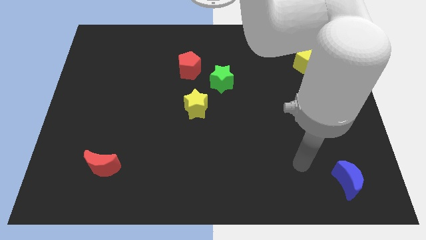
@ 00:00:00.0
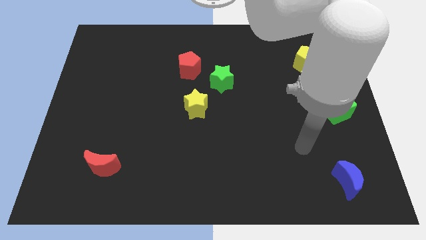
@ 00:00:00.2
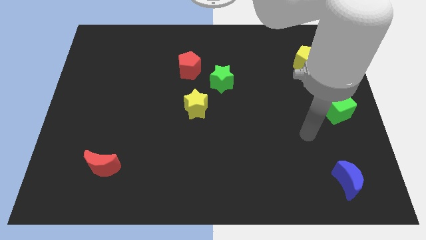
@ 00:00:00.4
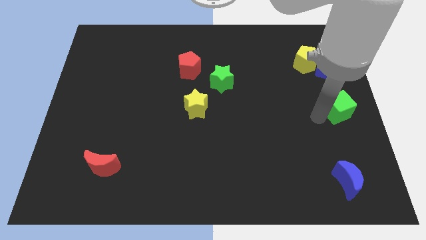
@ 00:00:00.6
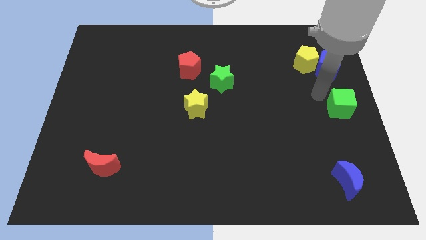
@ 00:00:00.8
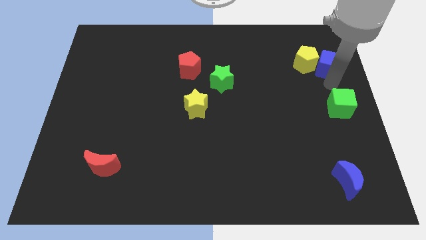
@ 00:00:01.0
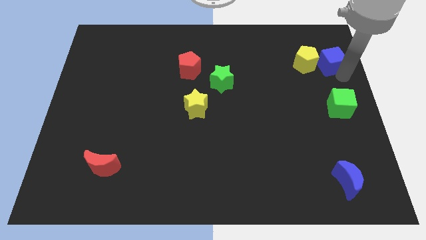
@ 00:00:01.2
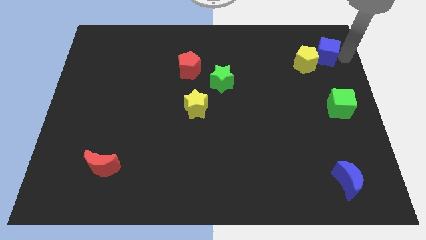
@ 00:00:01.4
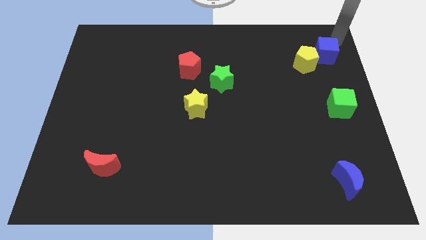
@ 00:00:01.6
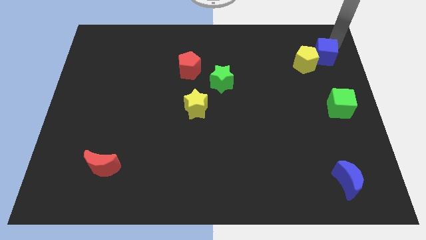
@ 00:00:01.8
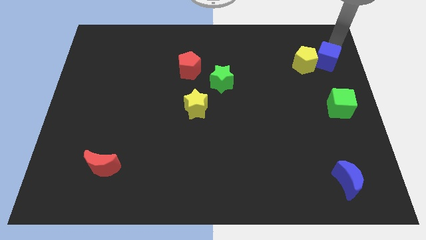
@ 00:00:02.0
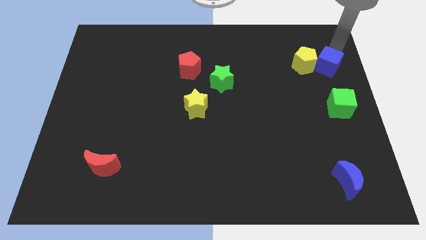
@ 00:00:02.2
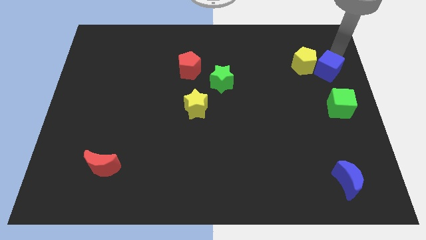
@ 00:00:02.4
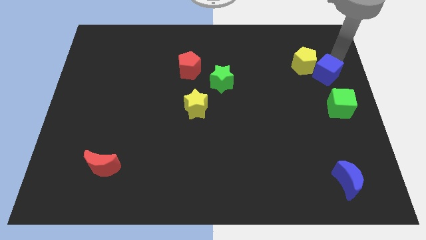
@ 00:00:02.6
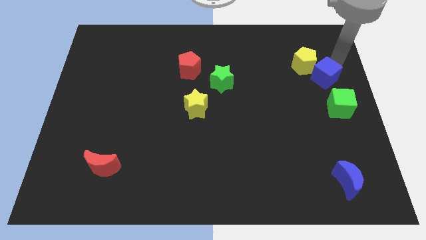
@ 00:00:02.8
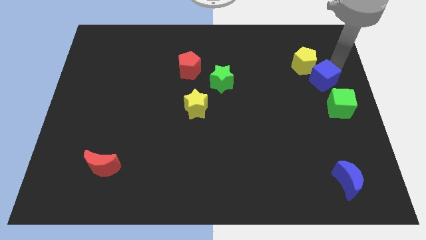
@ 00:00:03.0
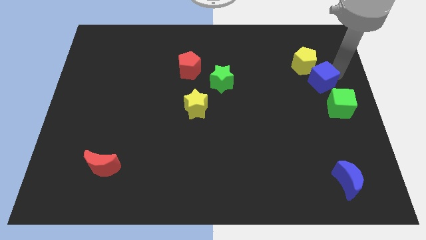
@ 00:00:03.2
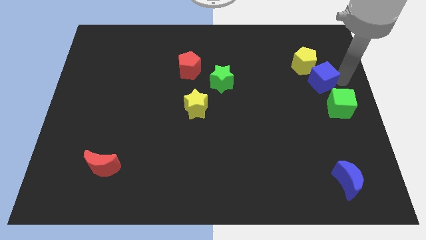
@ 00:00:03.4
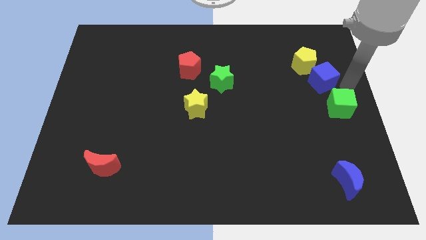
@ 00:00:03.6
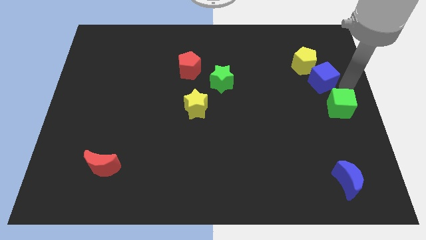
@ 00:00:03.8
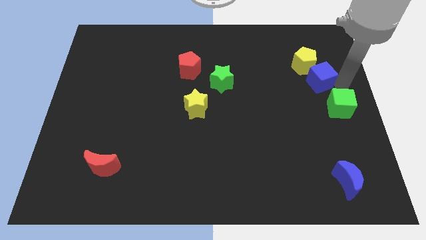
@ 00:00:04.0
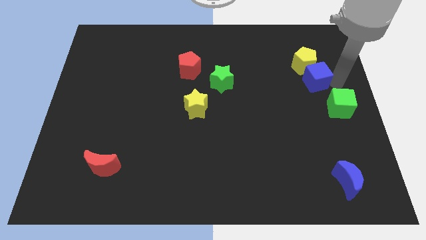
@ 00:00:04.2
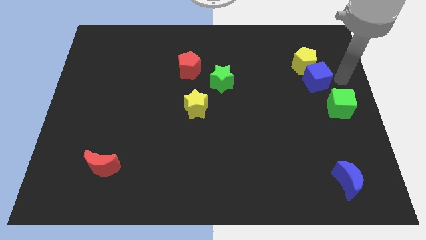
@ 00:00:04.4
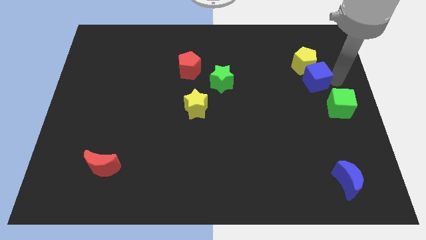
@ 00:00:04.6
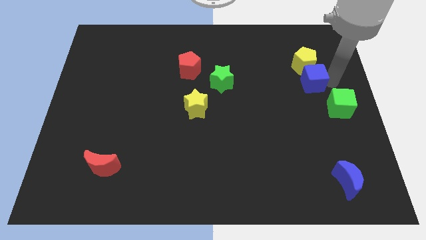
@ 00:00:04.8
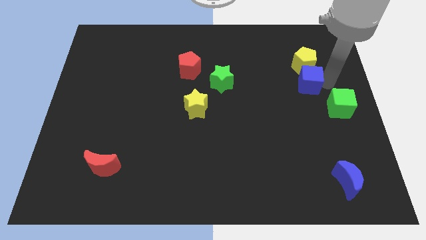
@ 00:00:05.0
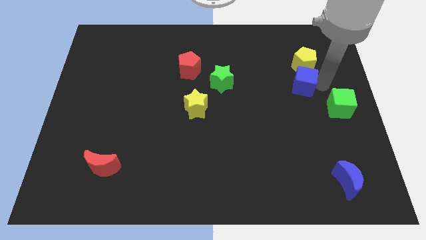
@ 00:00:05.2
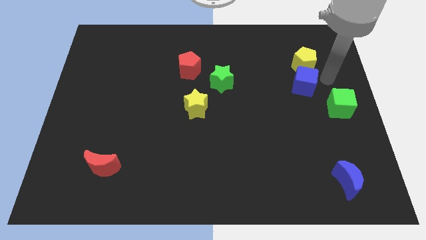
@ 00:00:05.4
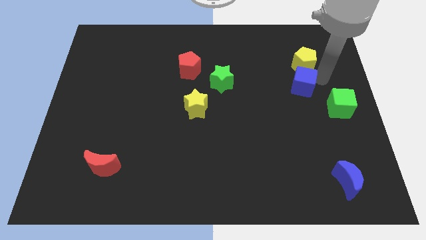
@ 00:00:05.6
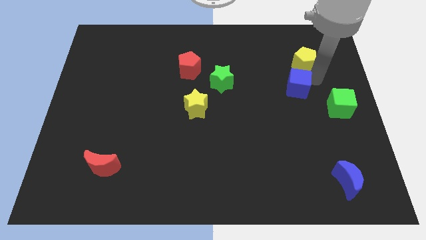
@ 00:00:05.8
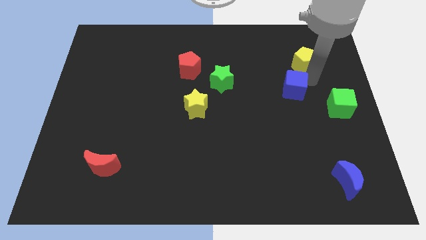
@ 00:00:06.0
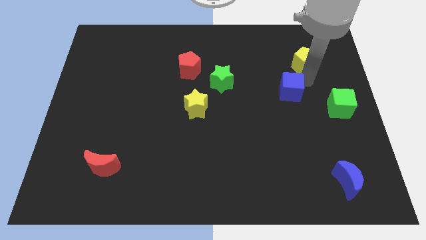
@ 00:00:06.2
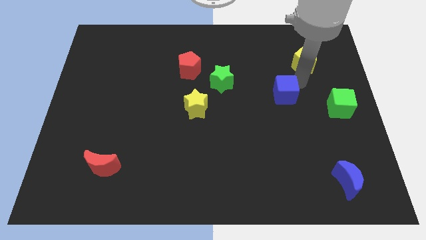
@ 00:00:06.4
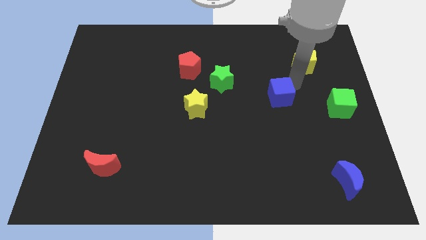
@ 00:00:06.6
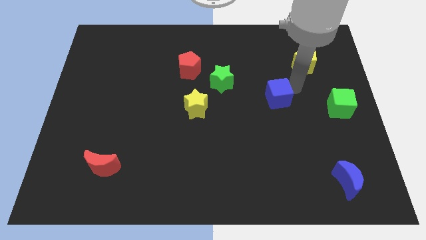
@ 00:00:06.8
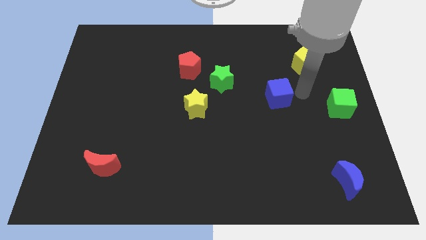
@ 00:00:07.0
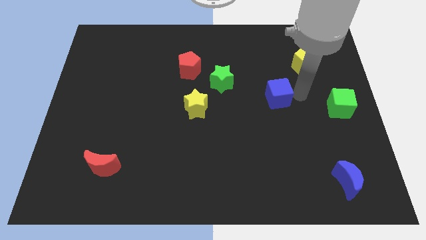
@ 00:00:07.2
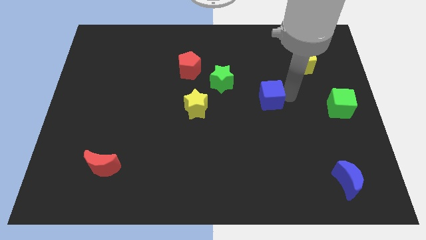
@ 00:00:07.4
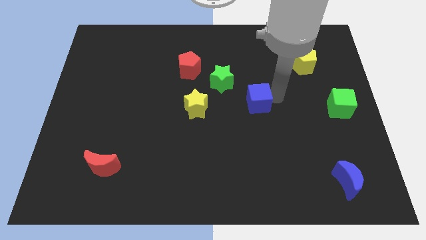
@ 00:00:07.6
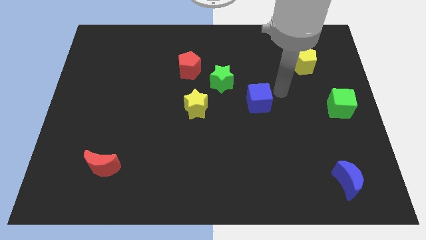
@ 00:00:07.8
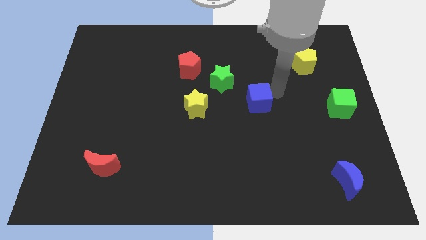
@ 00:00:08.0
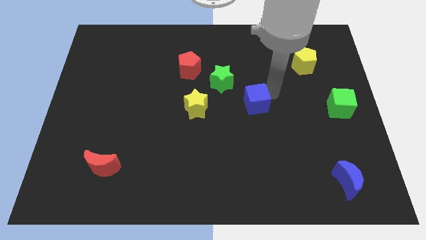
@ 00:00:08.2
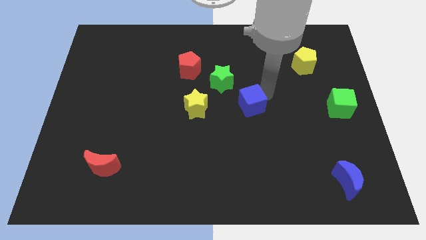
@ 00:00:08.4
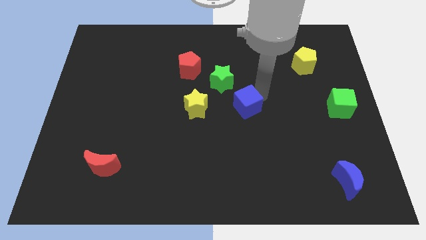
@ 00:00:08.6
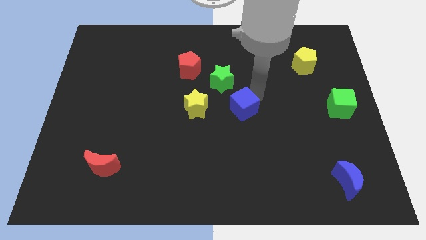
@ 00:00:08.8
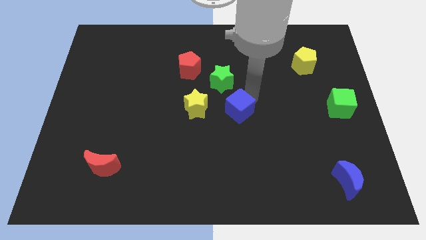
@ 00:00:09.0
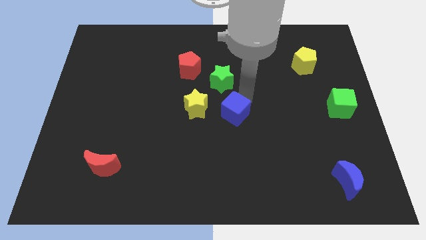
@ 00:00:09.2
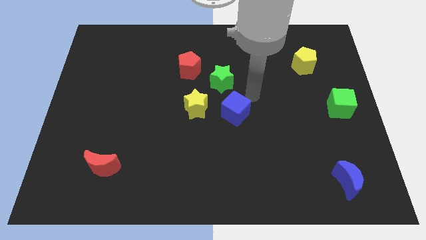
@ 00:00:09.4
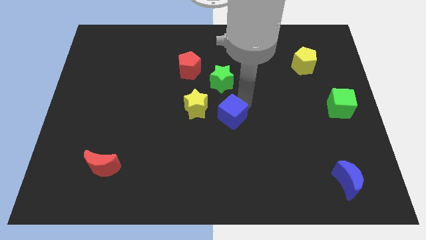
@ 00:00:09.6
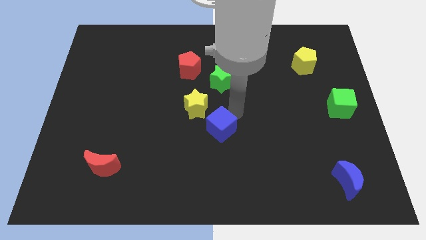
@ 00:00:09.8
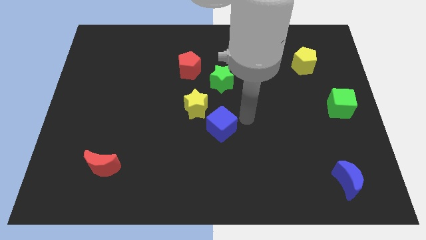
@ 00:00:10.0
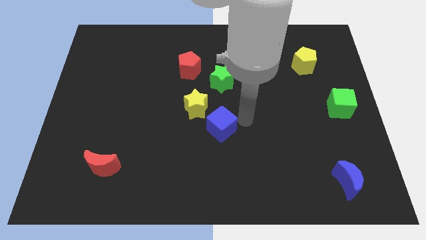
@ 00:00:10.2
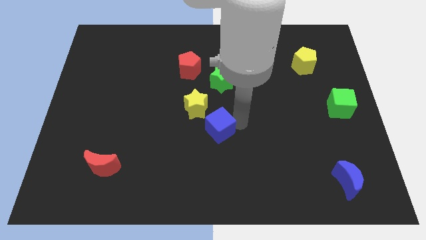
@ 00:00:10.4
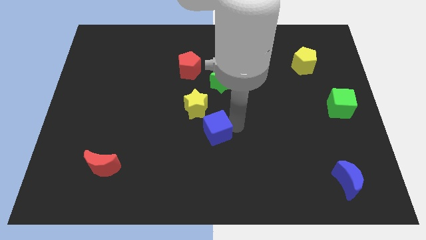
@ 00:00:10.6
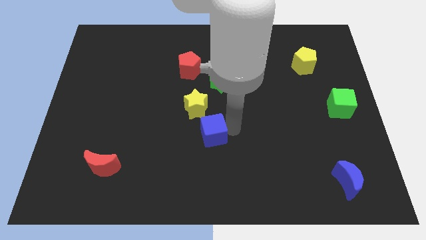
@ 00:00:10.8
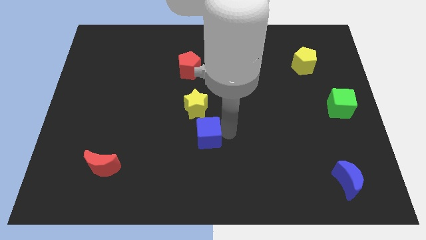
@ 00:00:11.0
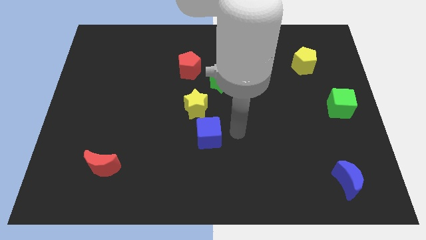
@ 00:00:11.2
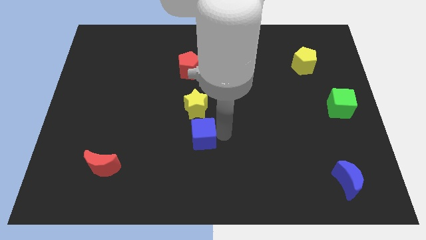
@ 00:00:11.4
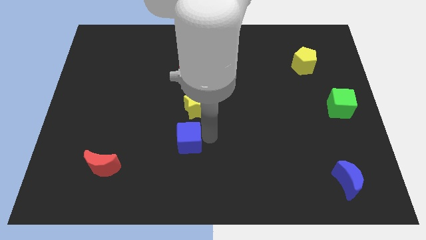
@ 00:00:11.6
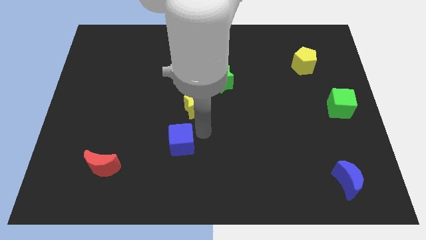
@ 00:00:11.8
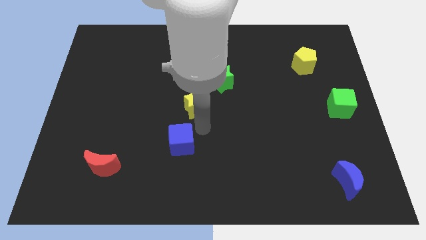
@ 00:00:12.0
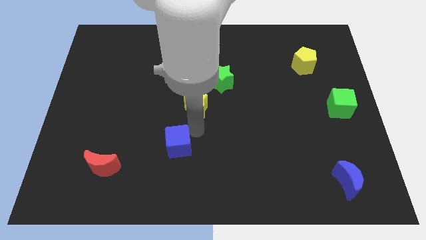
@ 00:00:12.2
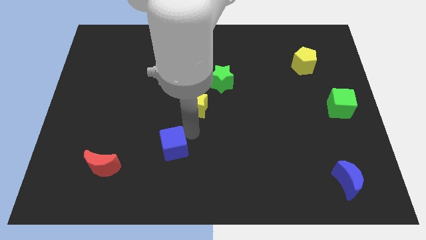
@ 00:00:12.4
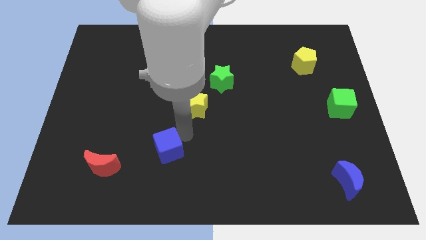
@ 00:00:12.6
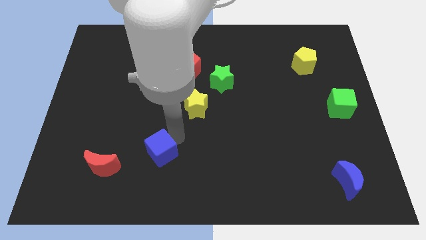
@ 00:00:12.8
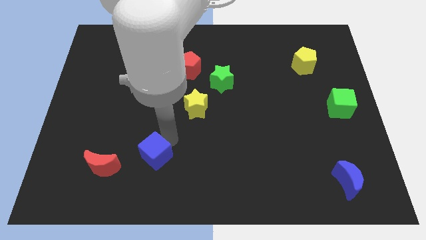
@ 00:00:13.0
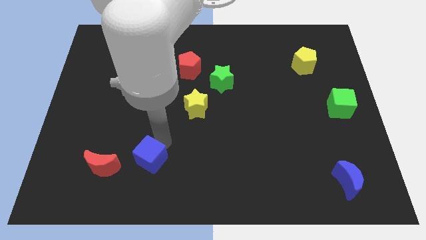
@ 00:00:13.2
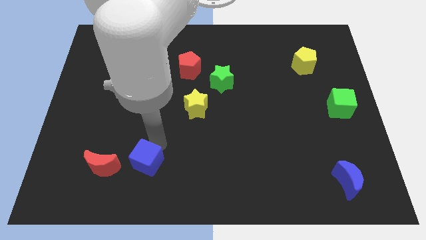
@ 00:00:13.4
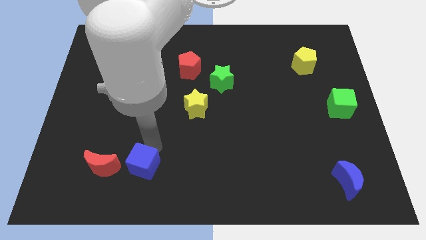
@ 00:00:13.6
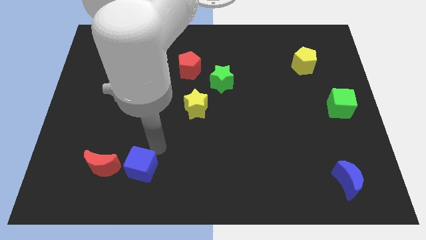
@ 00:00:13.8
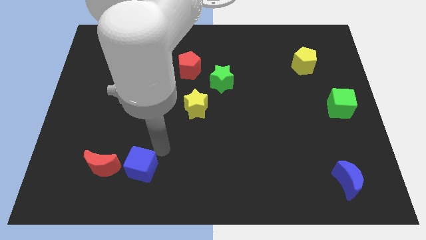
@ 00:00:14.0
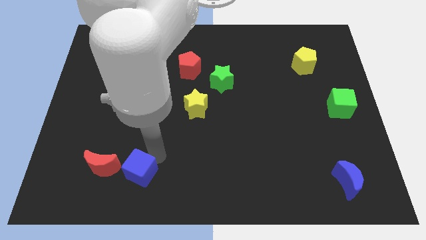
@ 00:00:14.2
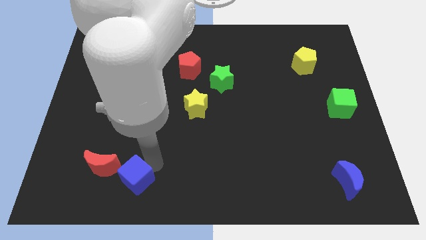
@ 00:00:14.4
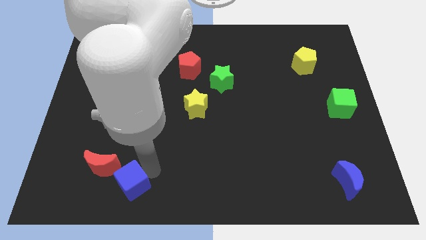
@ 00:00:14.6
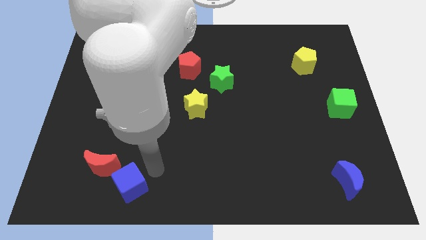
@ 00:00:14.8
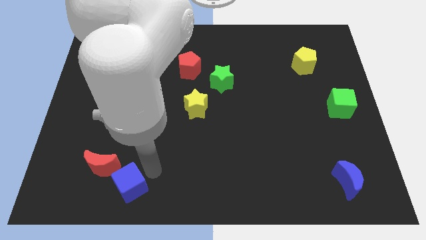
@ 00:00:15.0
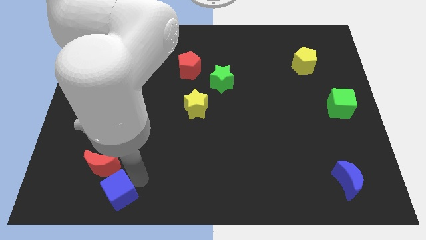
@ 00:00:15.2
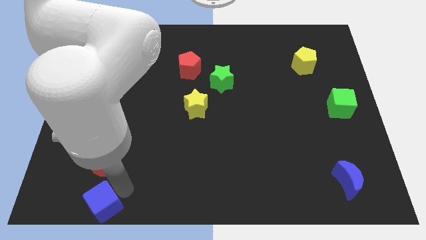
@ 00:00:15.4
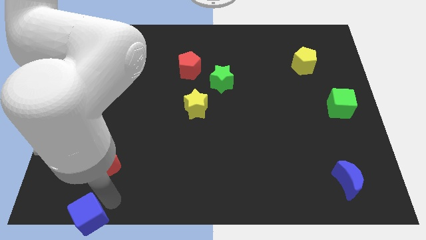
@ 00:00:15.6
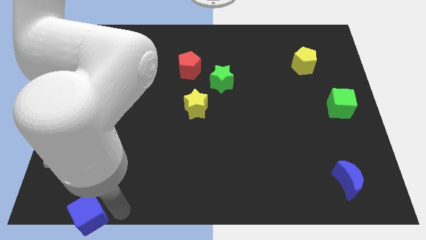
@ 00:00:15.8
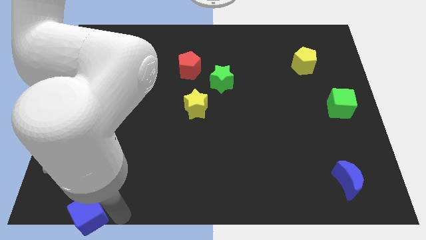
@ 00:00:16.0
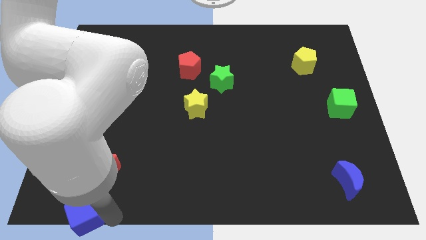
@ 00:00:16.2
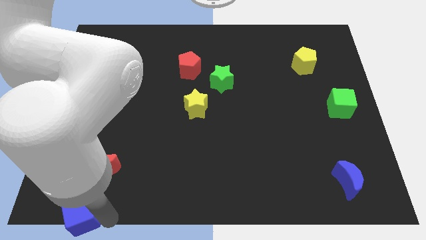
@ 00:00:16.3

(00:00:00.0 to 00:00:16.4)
push the blue cube to the bottom left of the board
